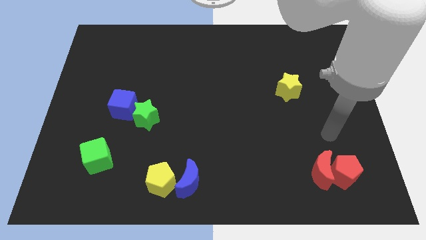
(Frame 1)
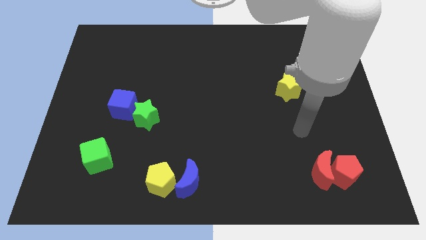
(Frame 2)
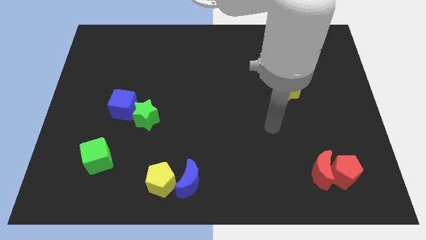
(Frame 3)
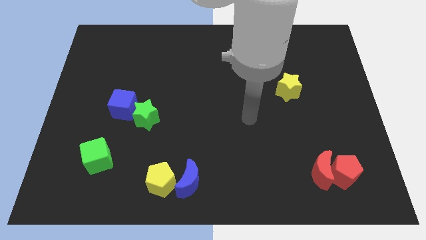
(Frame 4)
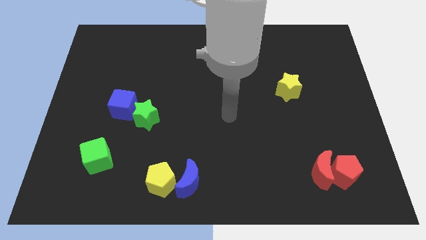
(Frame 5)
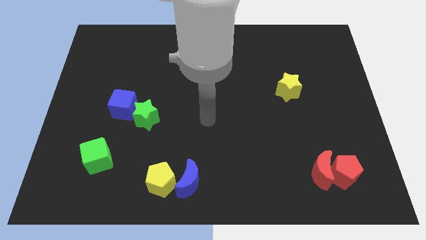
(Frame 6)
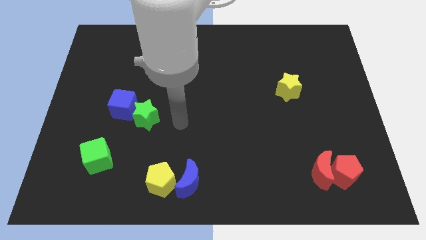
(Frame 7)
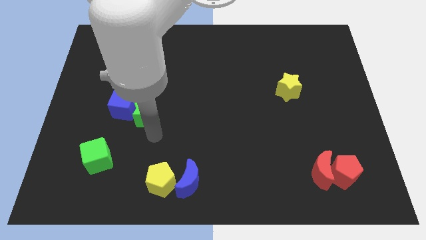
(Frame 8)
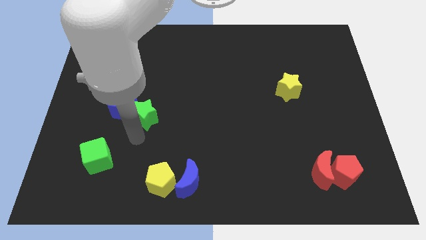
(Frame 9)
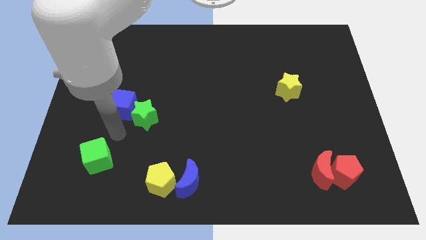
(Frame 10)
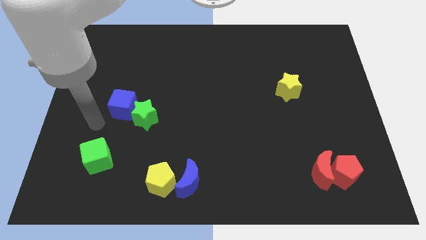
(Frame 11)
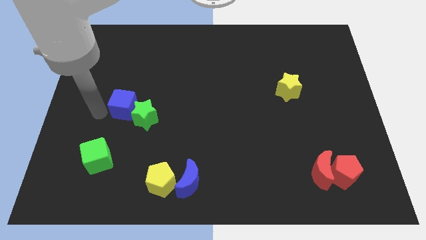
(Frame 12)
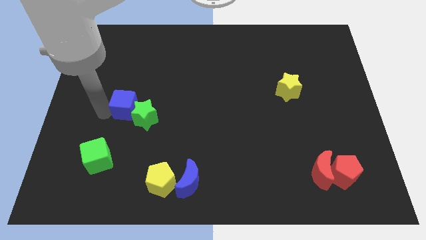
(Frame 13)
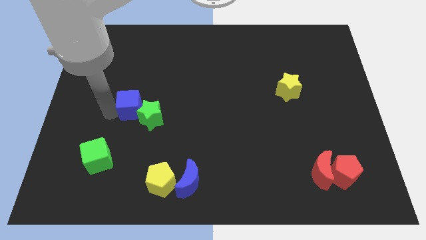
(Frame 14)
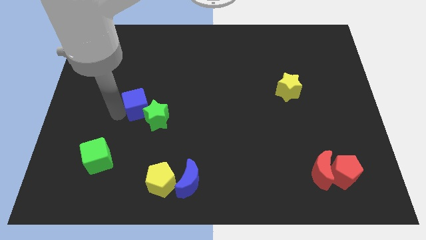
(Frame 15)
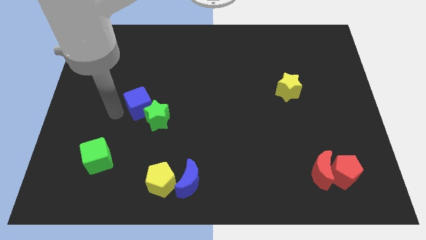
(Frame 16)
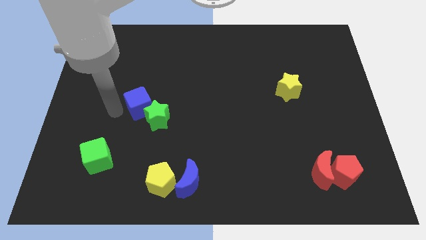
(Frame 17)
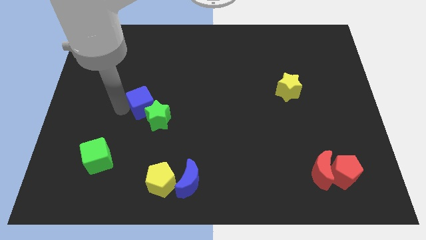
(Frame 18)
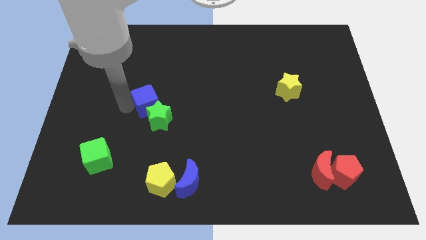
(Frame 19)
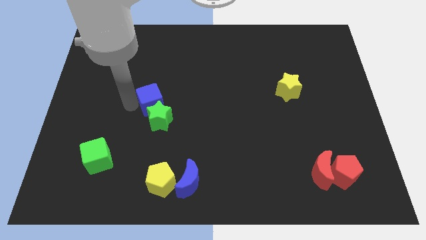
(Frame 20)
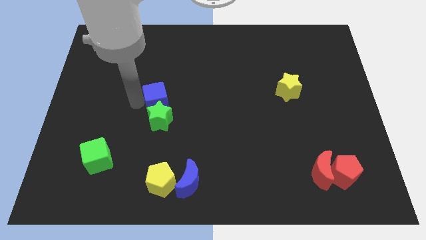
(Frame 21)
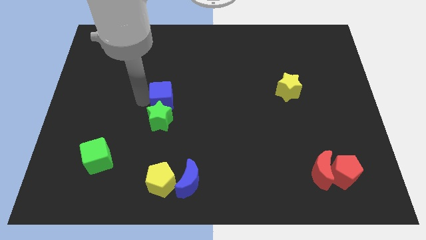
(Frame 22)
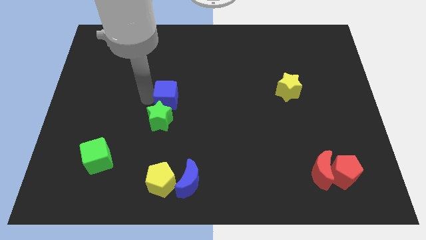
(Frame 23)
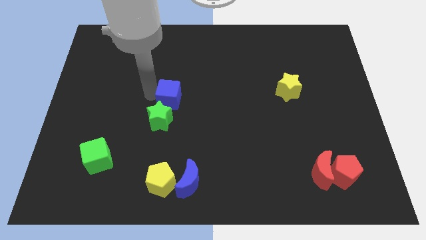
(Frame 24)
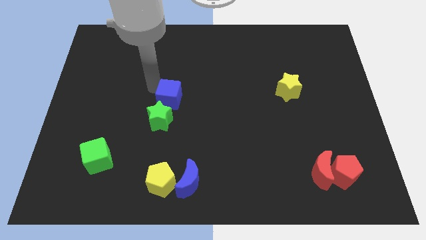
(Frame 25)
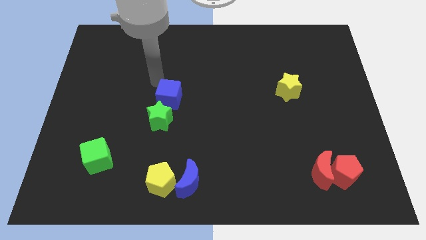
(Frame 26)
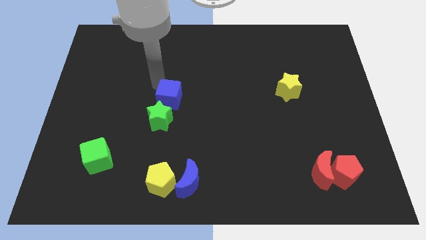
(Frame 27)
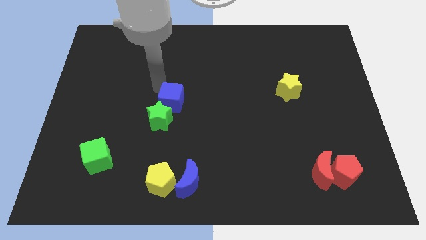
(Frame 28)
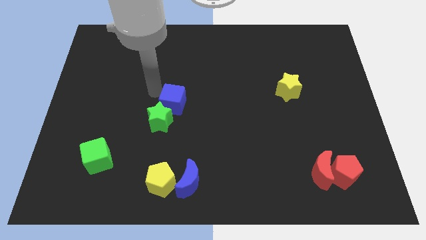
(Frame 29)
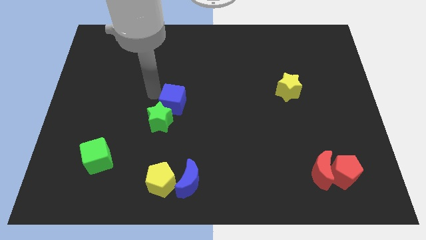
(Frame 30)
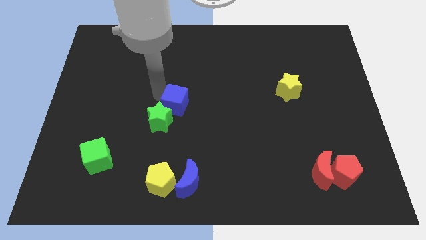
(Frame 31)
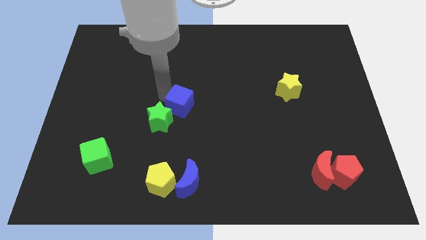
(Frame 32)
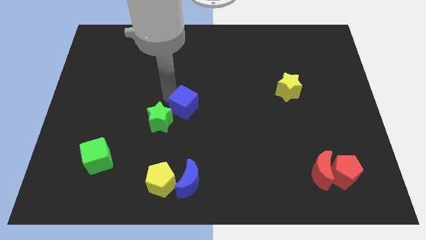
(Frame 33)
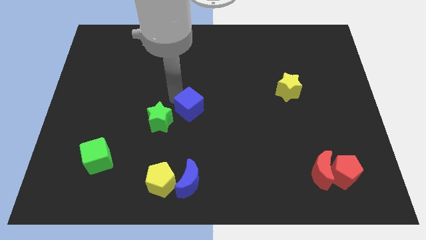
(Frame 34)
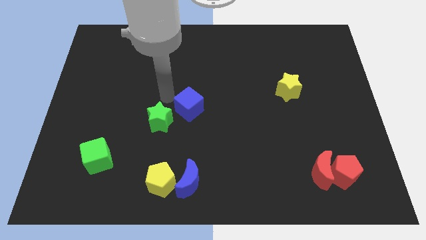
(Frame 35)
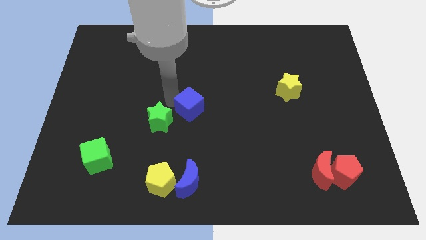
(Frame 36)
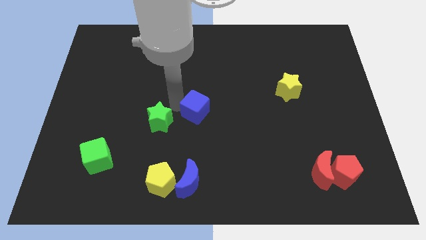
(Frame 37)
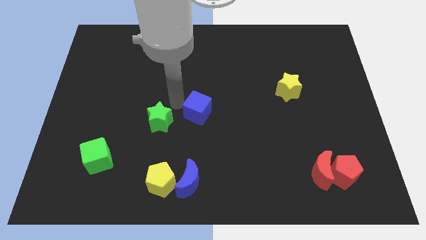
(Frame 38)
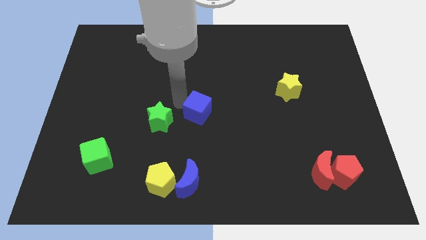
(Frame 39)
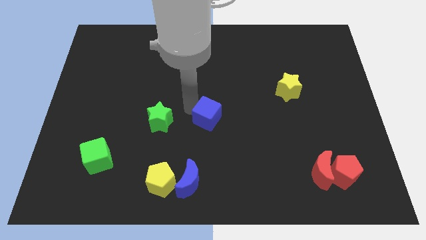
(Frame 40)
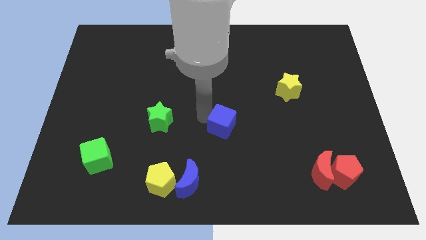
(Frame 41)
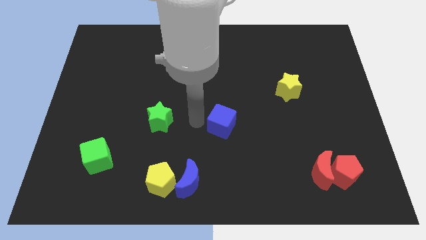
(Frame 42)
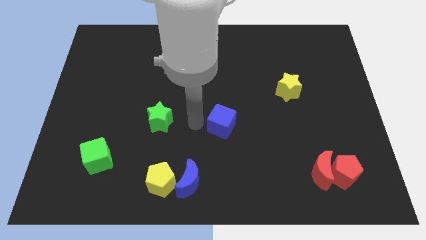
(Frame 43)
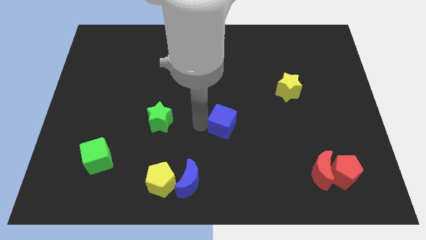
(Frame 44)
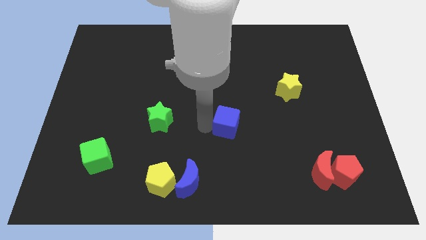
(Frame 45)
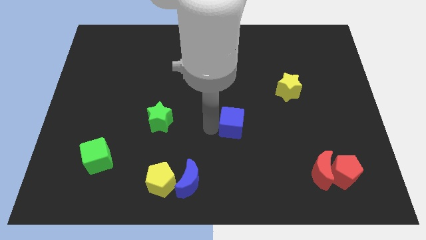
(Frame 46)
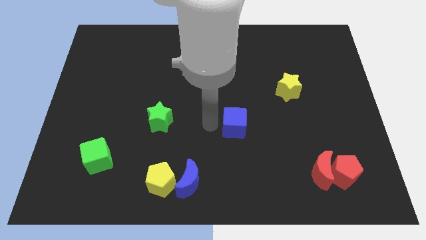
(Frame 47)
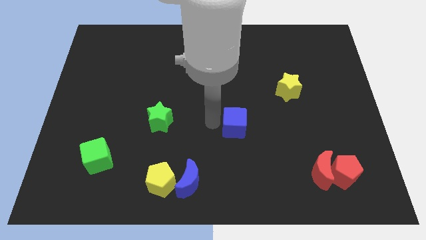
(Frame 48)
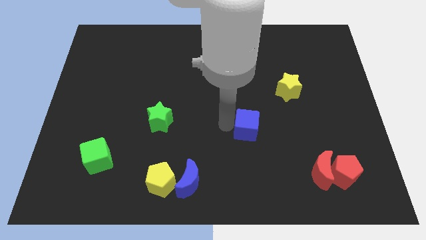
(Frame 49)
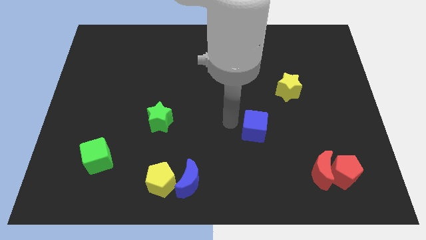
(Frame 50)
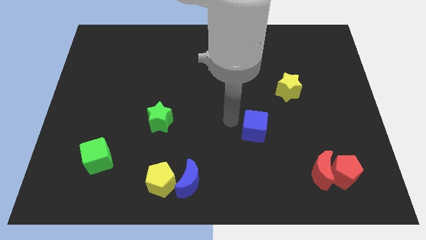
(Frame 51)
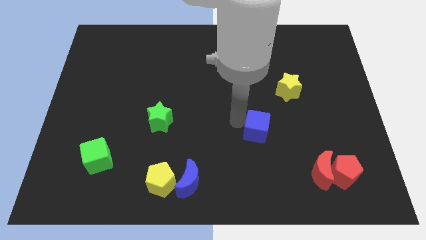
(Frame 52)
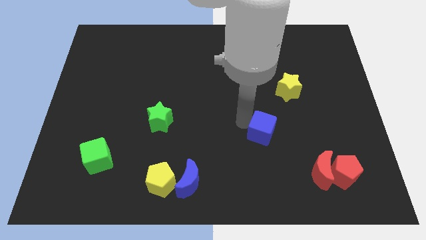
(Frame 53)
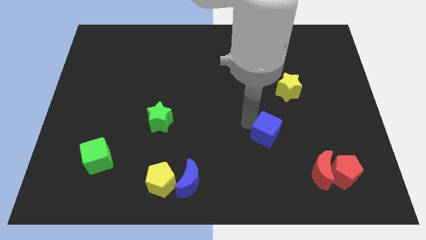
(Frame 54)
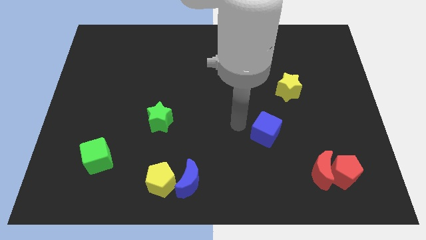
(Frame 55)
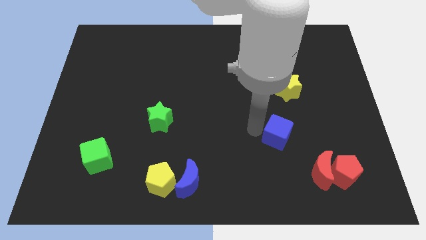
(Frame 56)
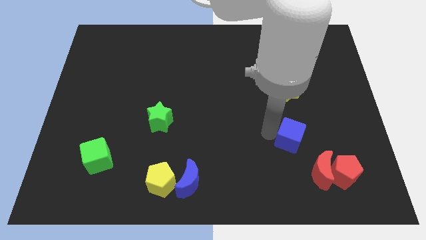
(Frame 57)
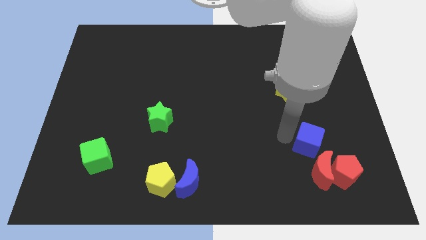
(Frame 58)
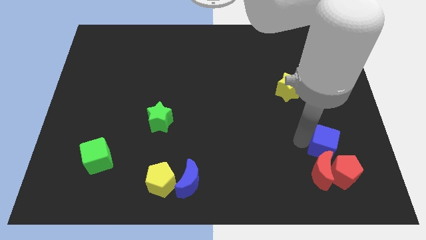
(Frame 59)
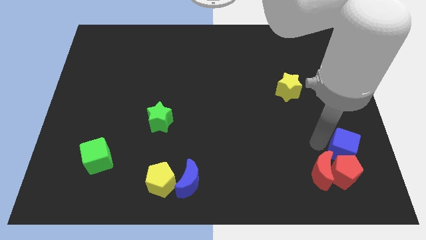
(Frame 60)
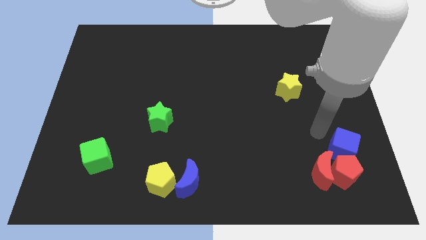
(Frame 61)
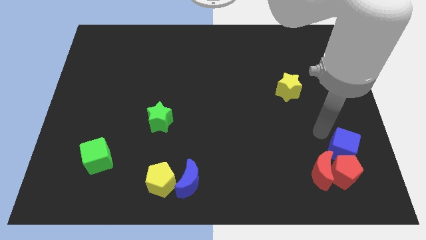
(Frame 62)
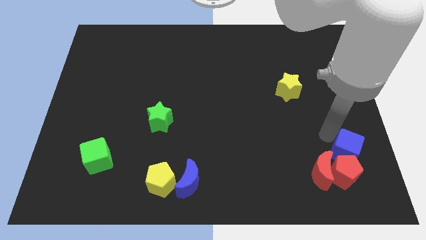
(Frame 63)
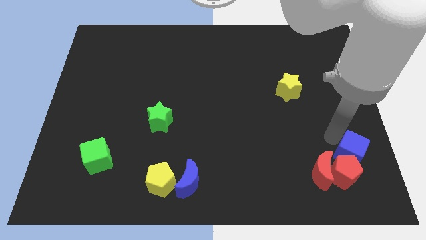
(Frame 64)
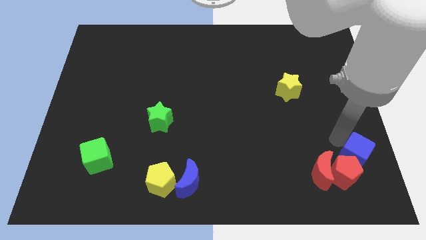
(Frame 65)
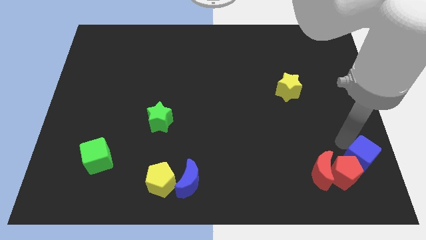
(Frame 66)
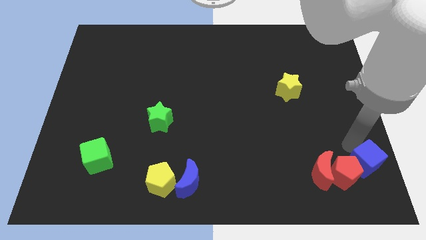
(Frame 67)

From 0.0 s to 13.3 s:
move the blue cube to the bottom right
